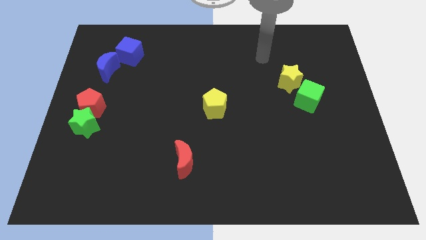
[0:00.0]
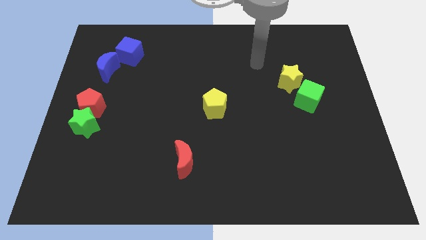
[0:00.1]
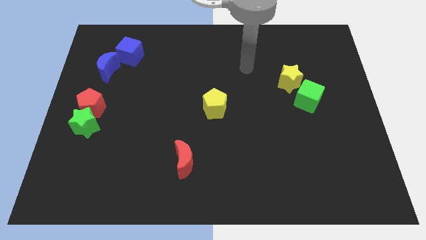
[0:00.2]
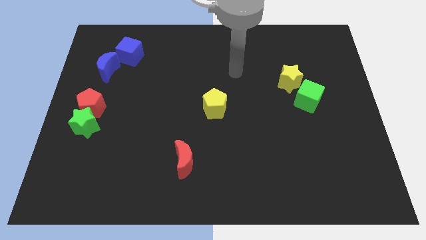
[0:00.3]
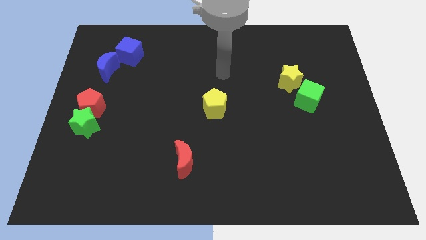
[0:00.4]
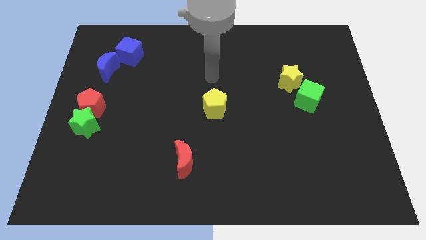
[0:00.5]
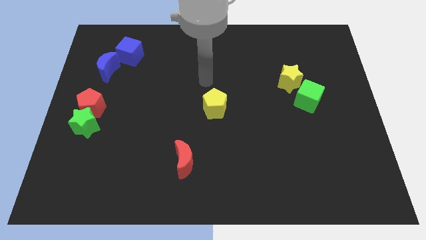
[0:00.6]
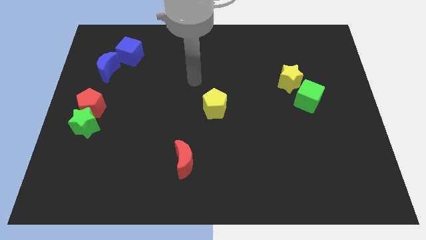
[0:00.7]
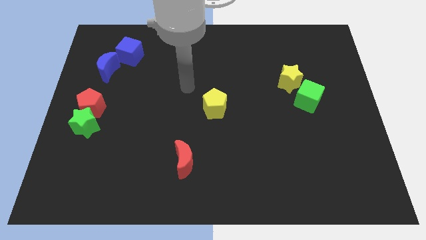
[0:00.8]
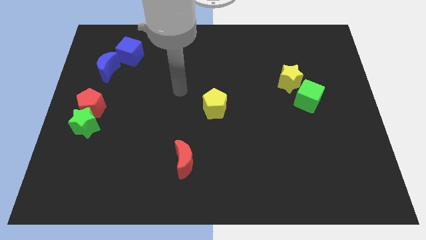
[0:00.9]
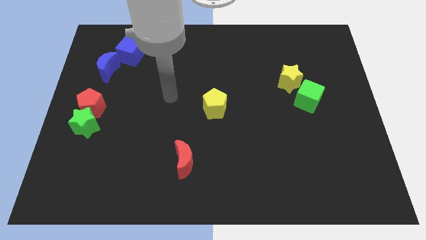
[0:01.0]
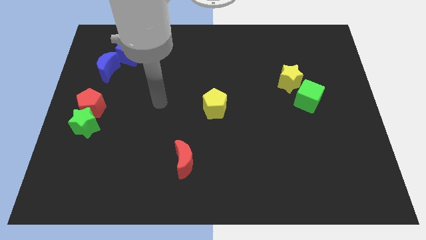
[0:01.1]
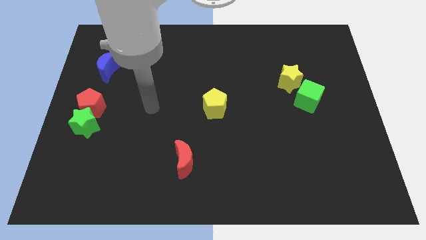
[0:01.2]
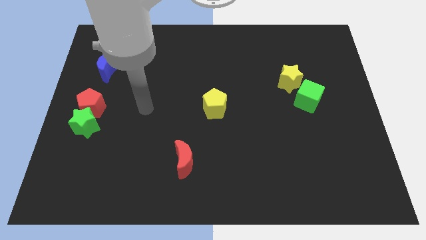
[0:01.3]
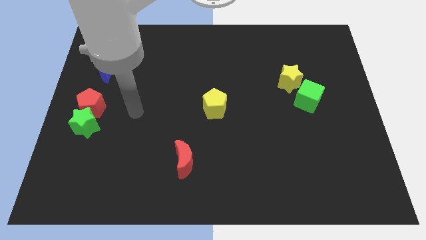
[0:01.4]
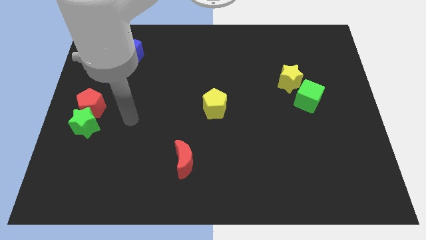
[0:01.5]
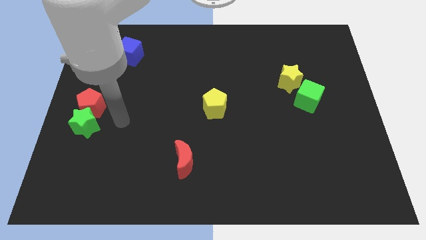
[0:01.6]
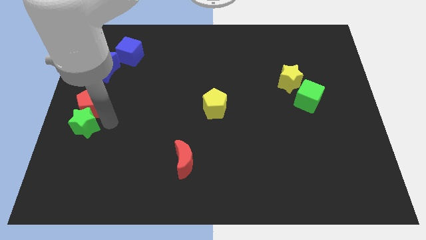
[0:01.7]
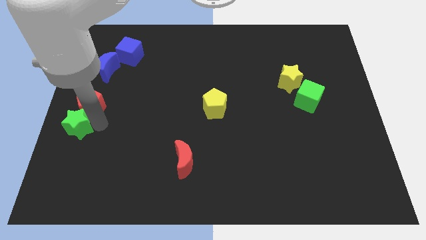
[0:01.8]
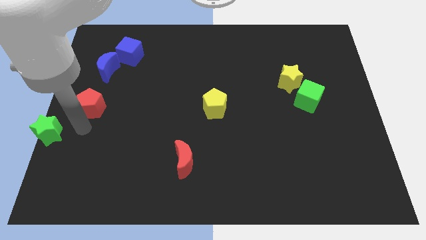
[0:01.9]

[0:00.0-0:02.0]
separate the red pentagon from the green star

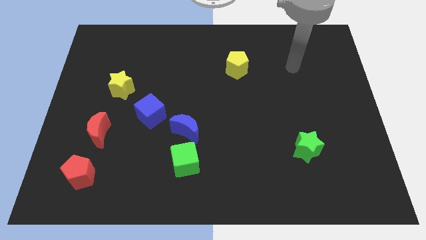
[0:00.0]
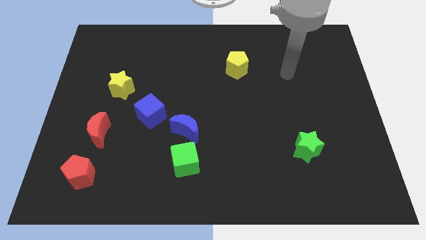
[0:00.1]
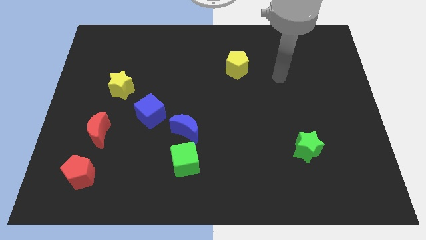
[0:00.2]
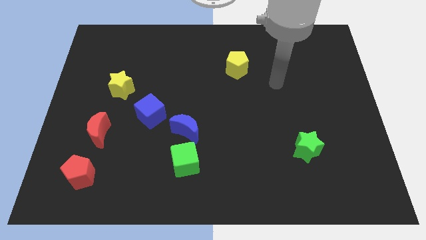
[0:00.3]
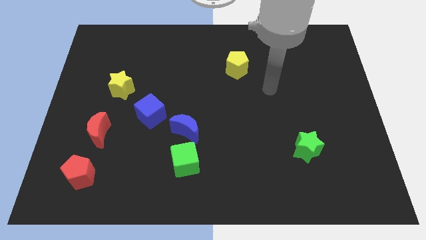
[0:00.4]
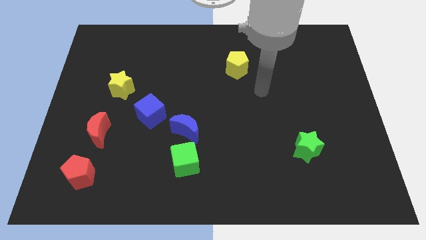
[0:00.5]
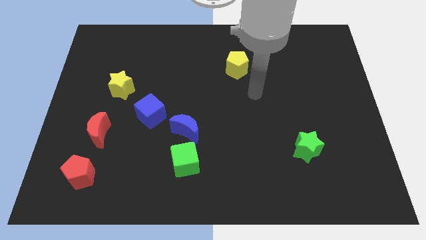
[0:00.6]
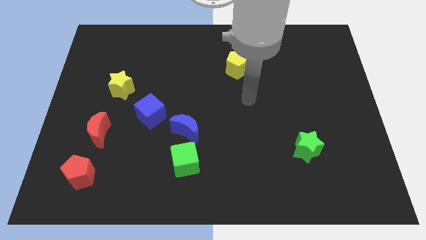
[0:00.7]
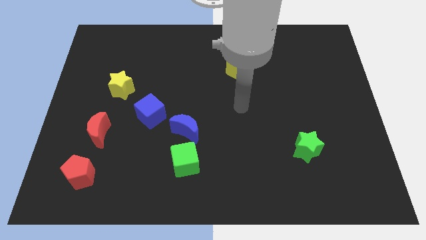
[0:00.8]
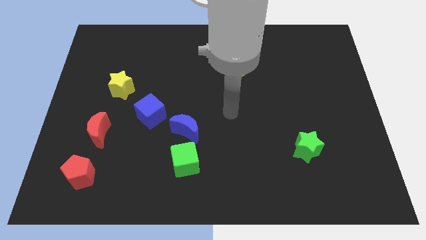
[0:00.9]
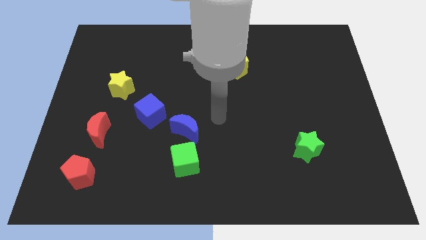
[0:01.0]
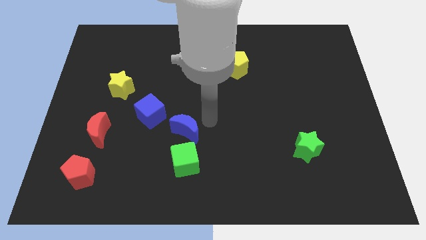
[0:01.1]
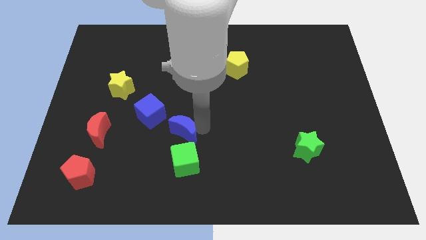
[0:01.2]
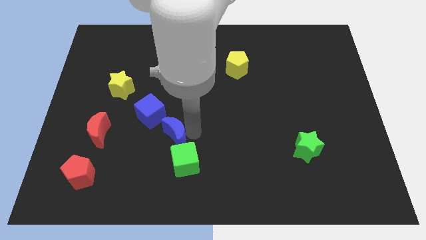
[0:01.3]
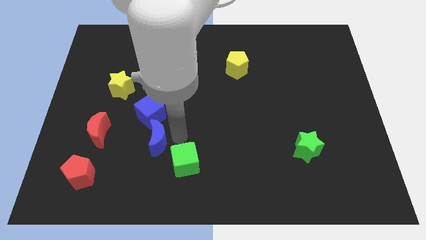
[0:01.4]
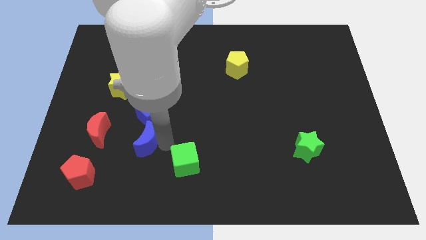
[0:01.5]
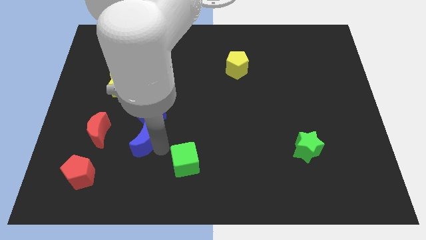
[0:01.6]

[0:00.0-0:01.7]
move the green cube away from the blue moon

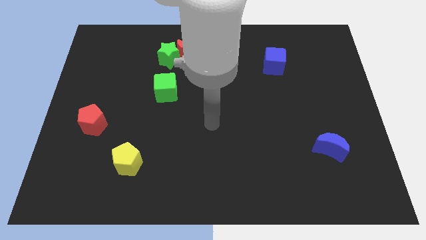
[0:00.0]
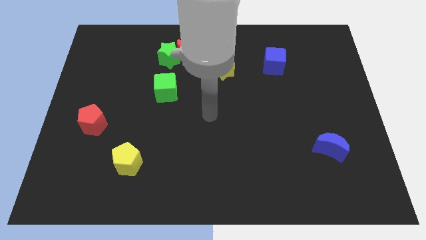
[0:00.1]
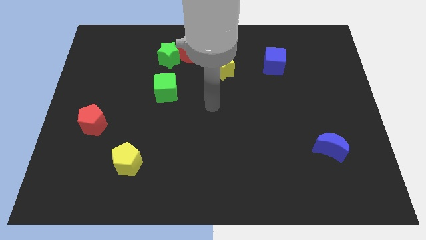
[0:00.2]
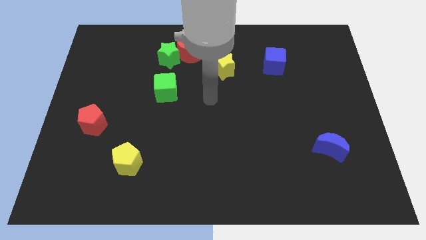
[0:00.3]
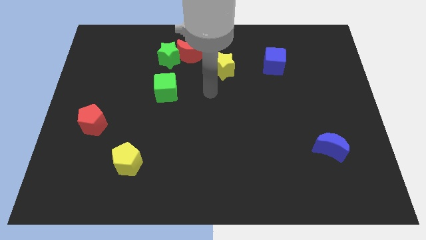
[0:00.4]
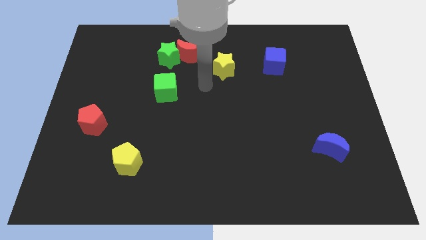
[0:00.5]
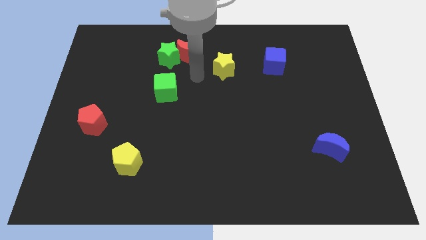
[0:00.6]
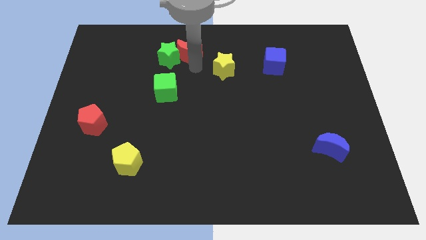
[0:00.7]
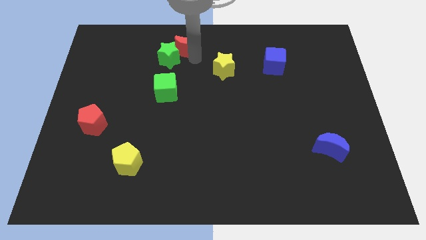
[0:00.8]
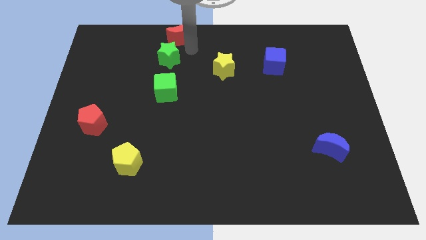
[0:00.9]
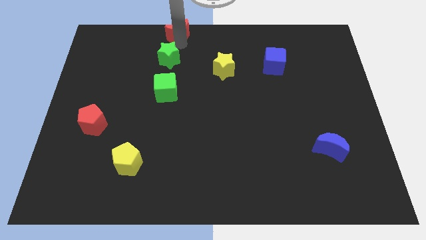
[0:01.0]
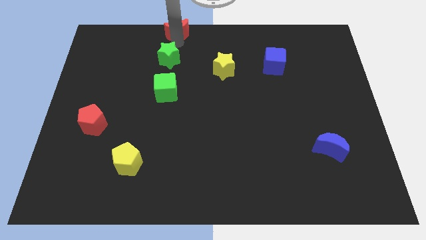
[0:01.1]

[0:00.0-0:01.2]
pull the green star apart from the red moon

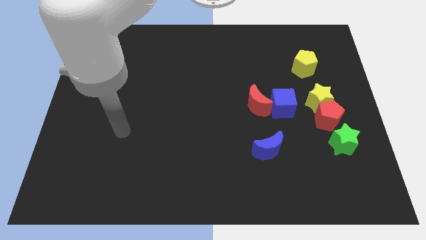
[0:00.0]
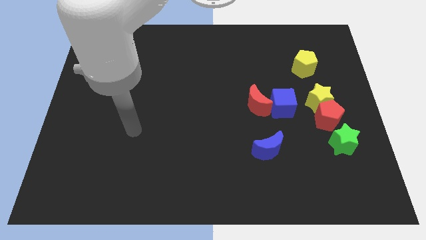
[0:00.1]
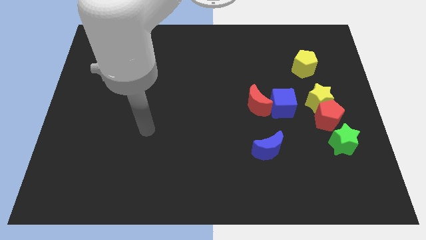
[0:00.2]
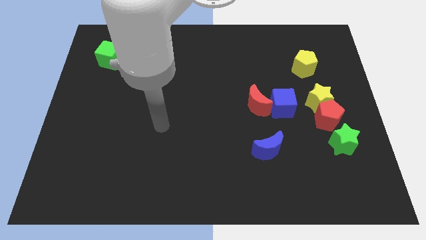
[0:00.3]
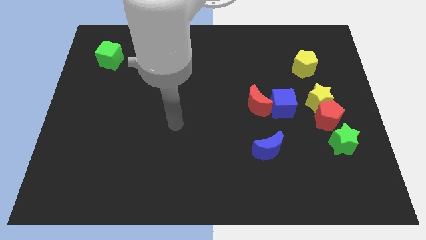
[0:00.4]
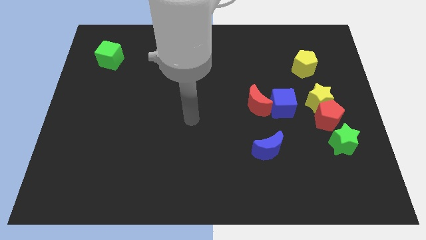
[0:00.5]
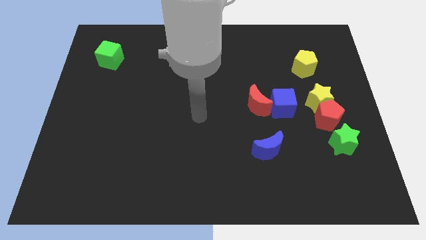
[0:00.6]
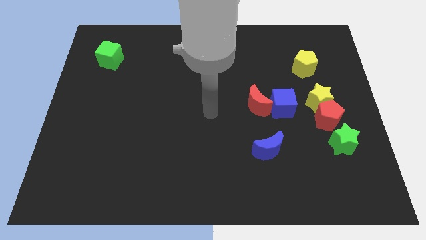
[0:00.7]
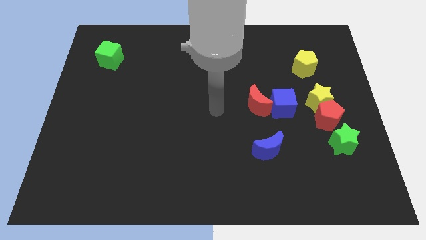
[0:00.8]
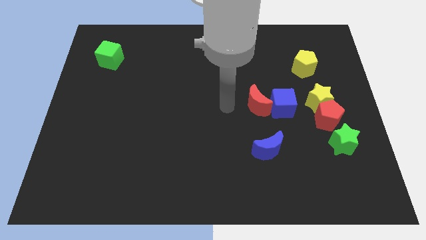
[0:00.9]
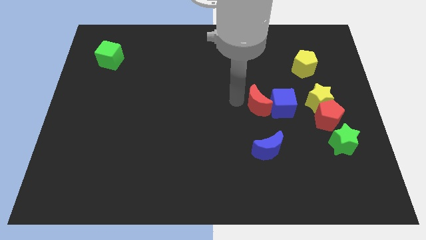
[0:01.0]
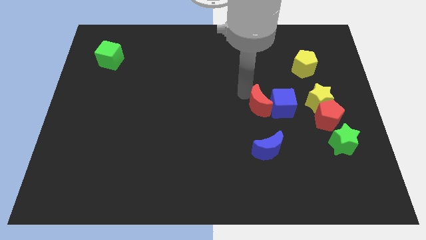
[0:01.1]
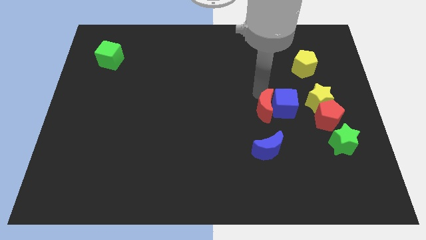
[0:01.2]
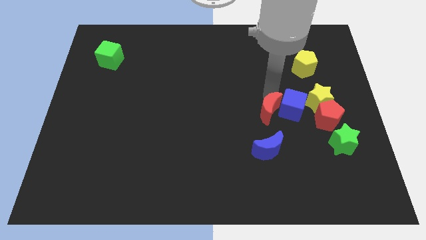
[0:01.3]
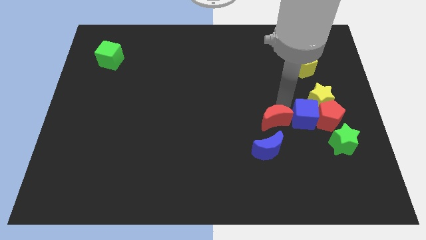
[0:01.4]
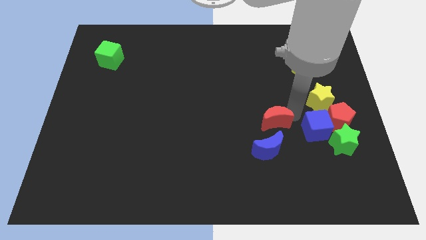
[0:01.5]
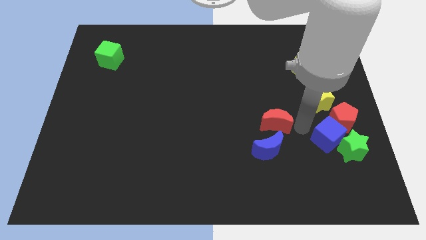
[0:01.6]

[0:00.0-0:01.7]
pull the red moon apart from the blue cube

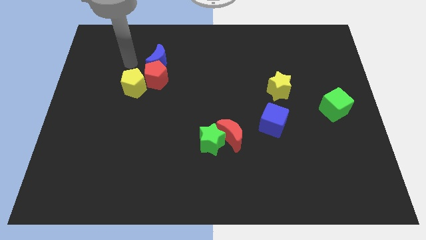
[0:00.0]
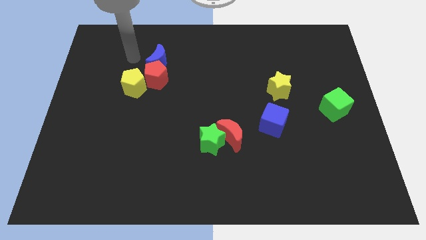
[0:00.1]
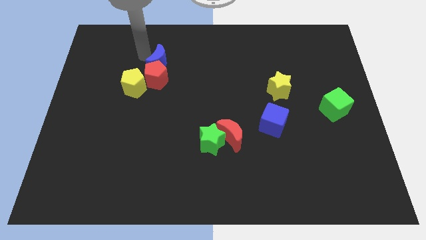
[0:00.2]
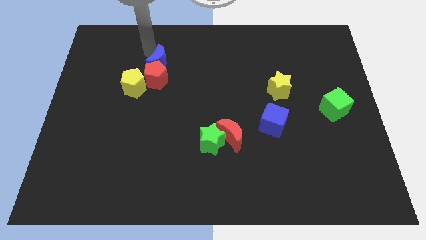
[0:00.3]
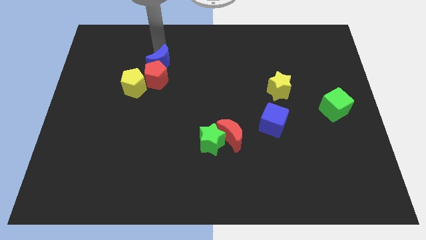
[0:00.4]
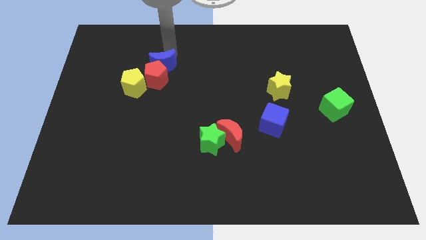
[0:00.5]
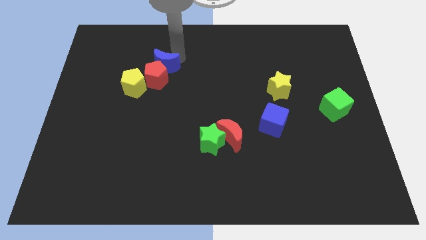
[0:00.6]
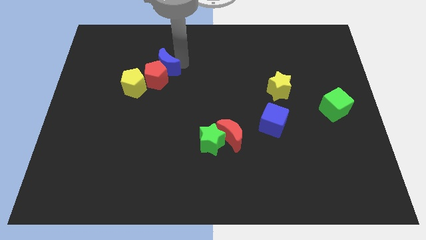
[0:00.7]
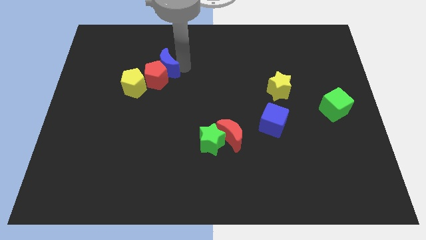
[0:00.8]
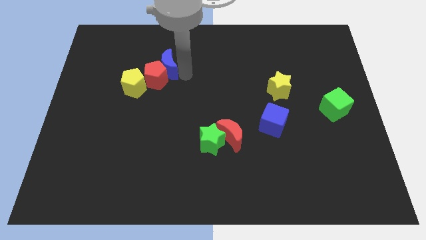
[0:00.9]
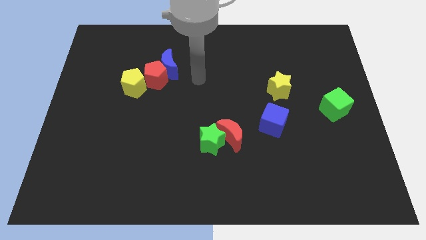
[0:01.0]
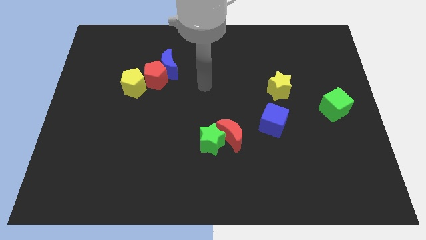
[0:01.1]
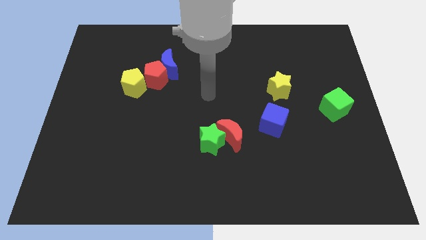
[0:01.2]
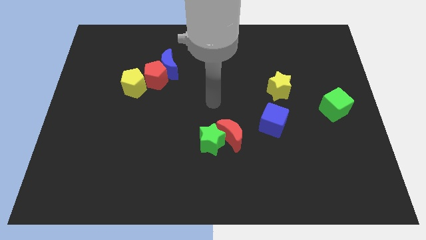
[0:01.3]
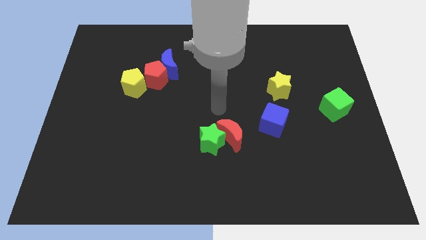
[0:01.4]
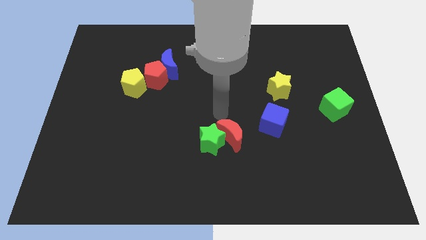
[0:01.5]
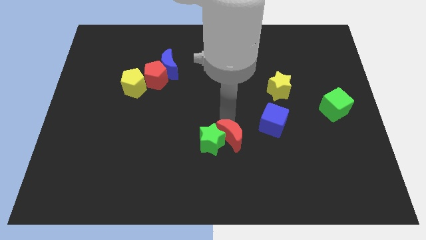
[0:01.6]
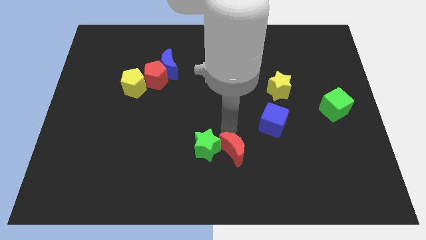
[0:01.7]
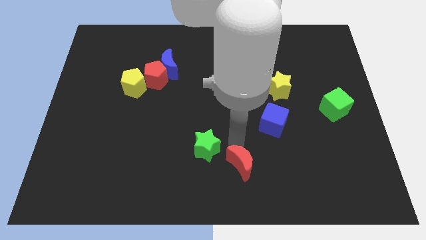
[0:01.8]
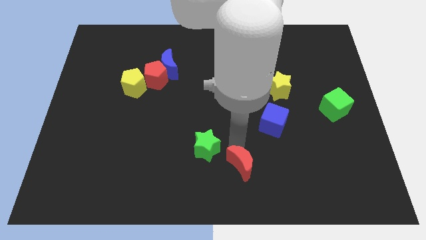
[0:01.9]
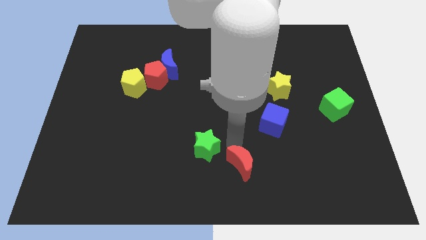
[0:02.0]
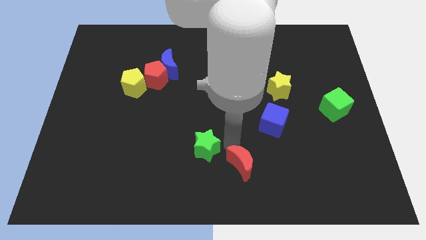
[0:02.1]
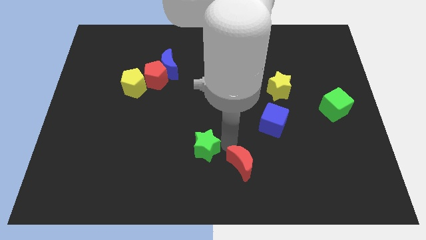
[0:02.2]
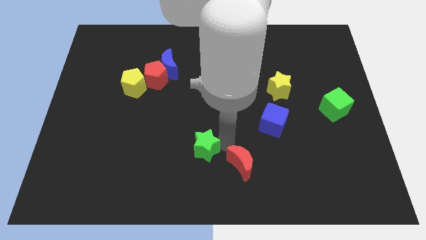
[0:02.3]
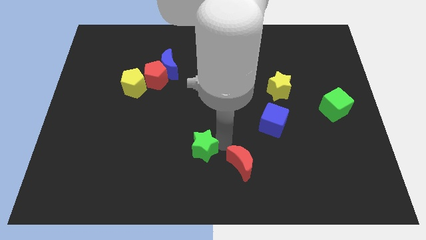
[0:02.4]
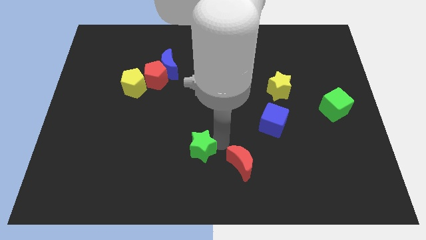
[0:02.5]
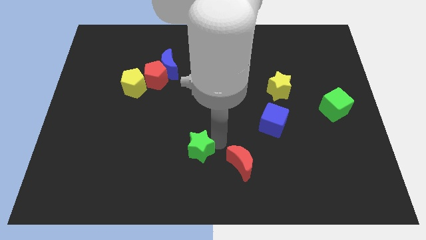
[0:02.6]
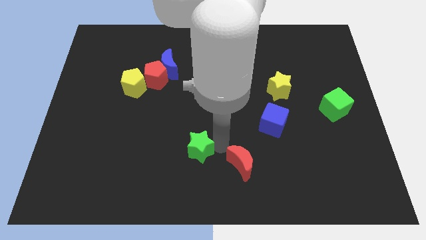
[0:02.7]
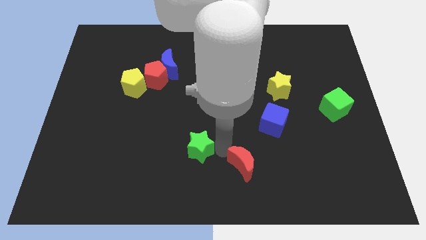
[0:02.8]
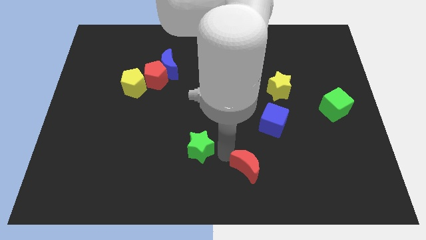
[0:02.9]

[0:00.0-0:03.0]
separate the green star from the red moon
